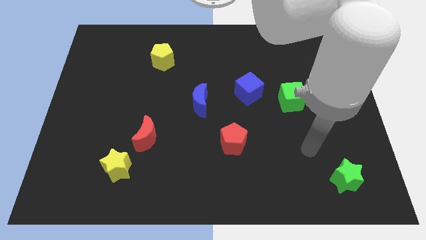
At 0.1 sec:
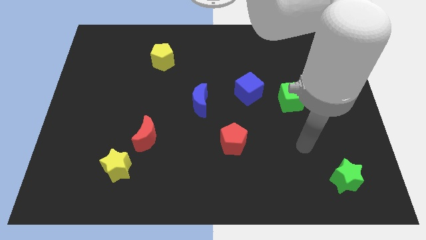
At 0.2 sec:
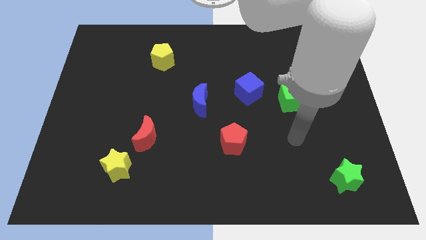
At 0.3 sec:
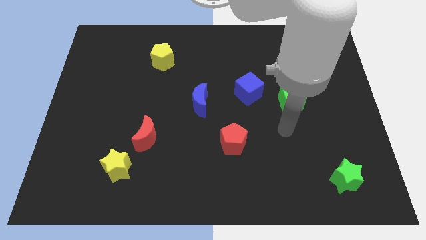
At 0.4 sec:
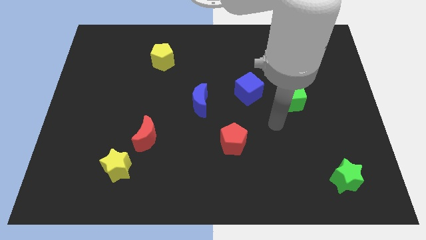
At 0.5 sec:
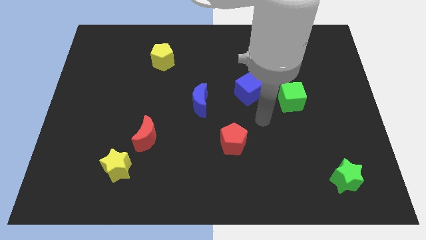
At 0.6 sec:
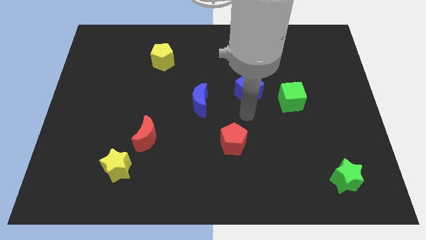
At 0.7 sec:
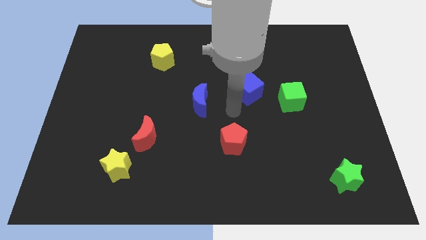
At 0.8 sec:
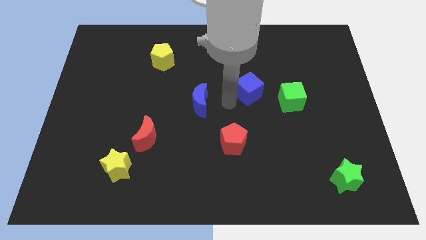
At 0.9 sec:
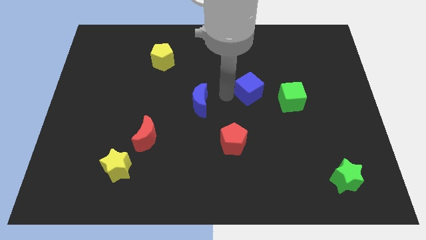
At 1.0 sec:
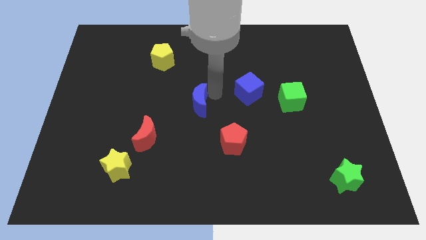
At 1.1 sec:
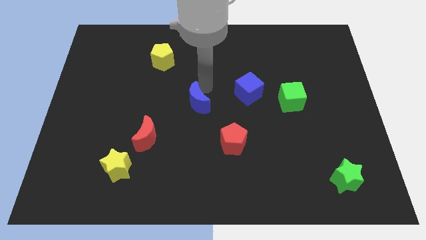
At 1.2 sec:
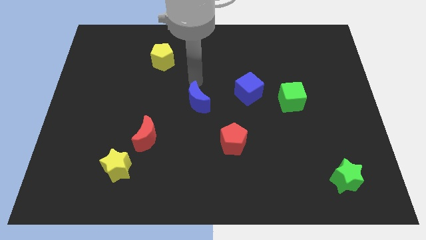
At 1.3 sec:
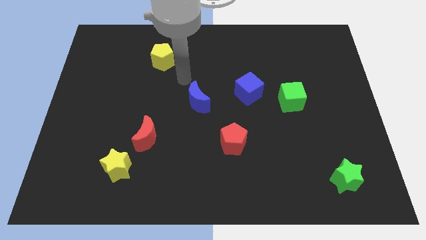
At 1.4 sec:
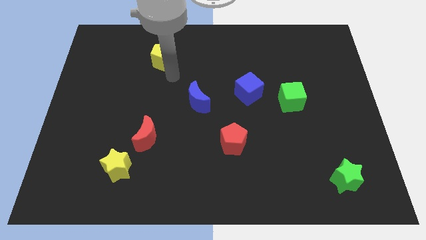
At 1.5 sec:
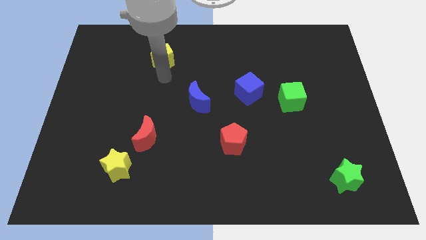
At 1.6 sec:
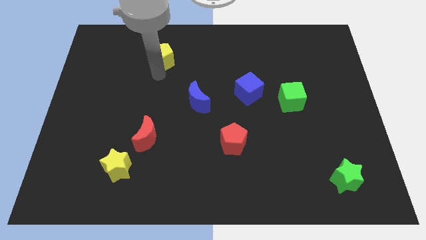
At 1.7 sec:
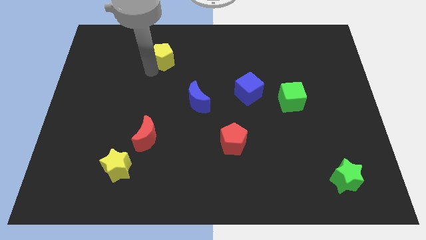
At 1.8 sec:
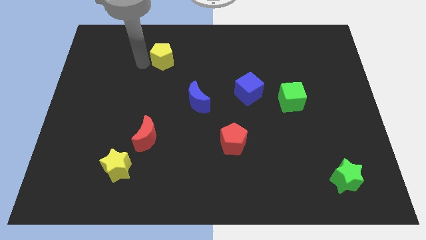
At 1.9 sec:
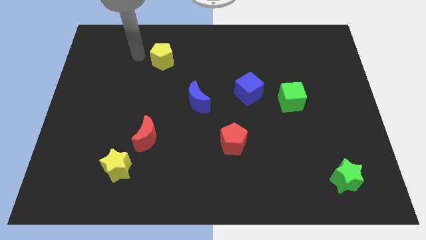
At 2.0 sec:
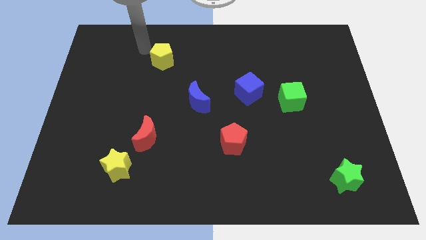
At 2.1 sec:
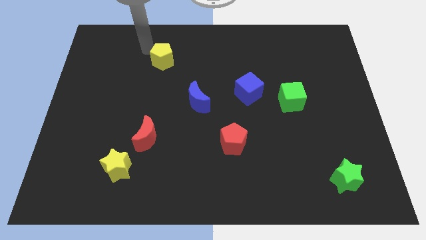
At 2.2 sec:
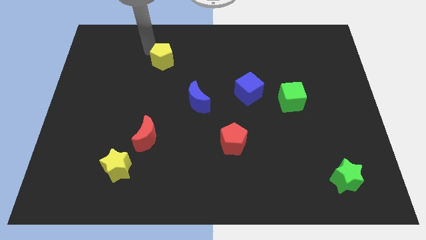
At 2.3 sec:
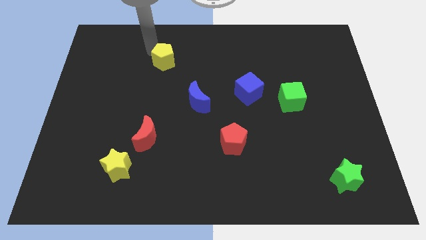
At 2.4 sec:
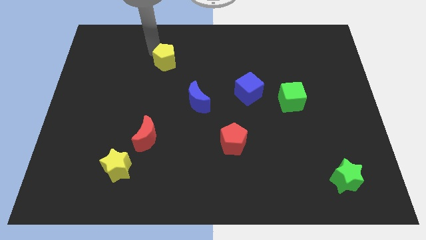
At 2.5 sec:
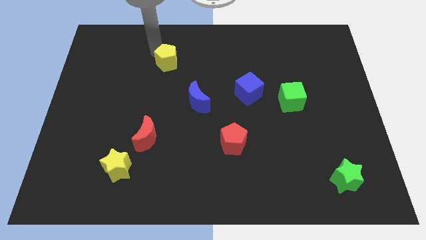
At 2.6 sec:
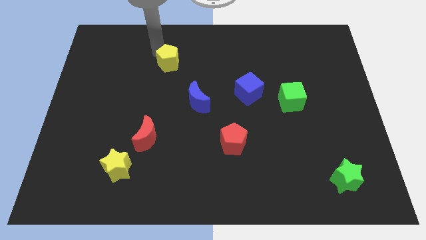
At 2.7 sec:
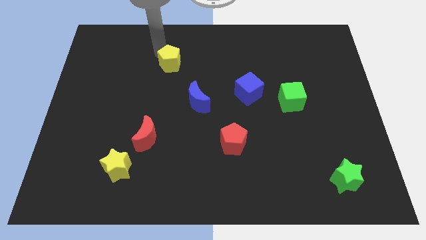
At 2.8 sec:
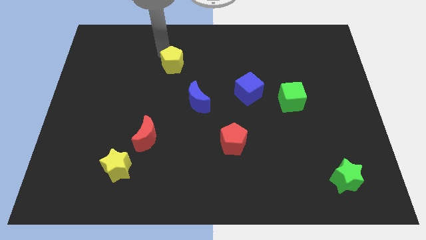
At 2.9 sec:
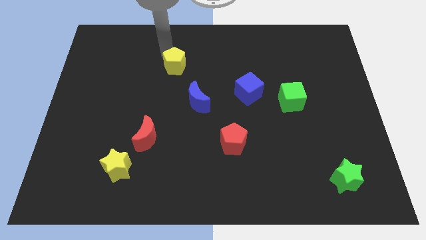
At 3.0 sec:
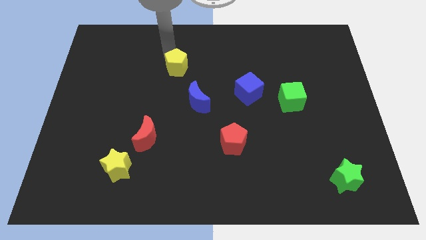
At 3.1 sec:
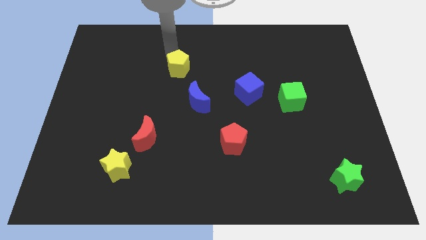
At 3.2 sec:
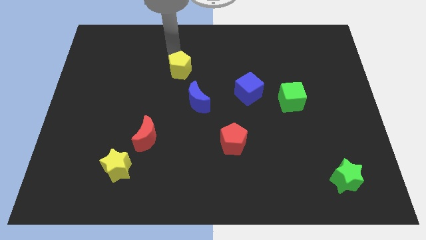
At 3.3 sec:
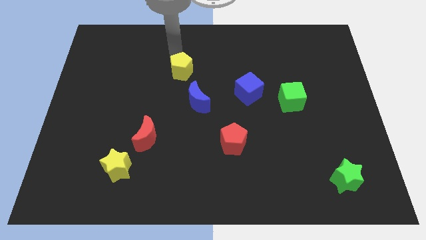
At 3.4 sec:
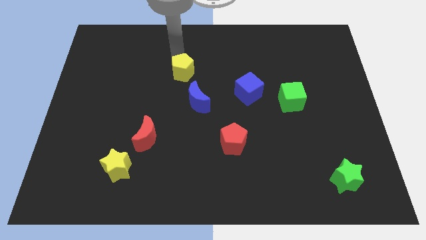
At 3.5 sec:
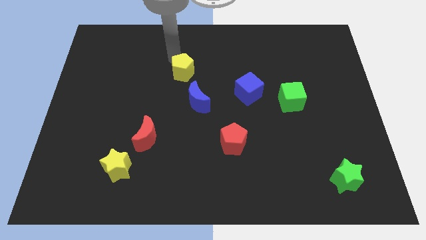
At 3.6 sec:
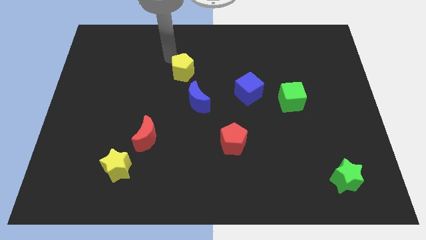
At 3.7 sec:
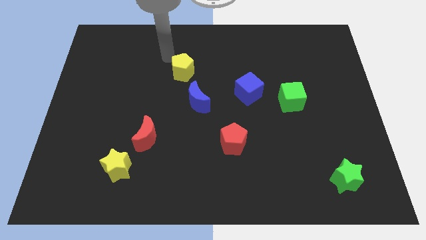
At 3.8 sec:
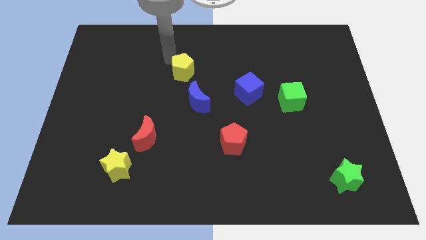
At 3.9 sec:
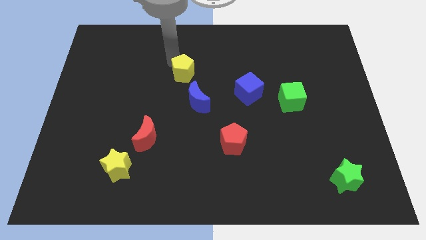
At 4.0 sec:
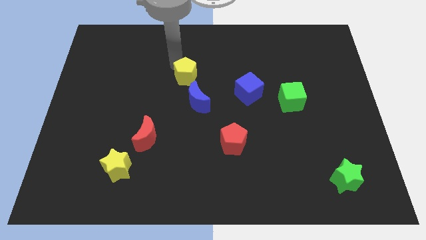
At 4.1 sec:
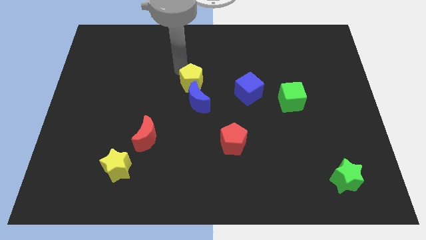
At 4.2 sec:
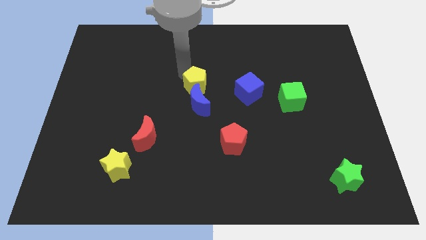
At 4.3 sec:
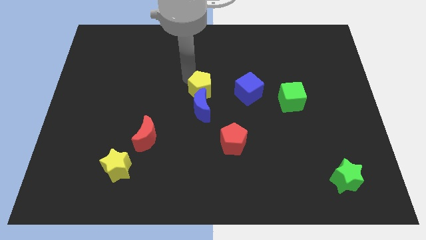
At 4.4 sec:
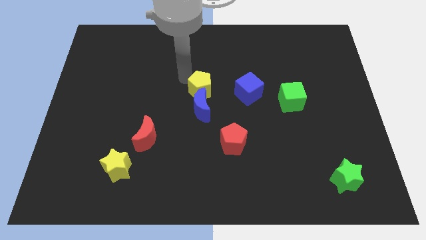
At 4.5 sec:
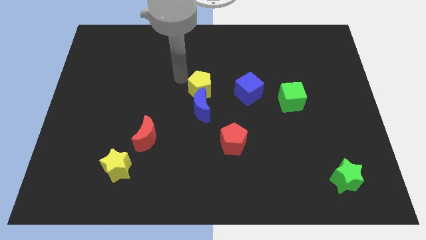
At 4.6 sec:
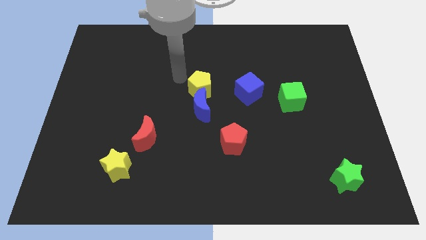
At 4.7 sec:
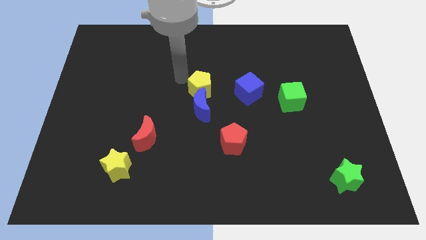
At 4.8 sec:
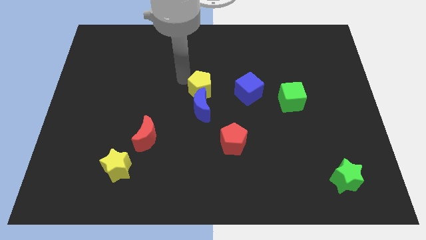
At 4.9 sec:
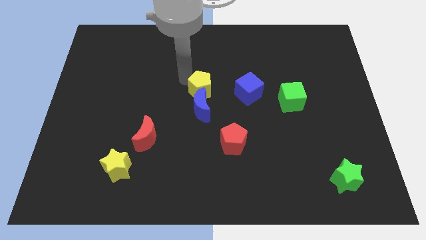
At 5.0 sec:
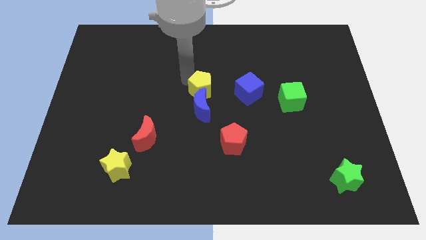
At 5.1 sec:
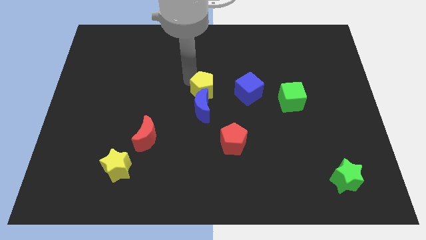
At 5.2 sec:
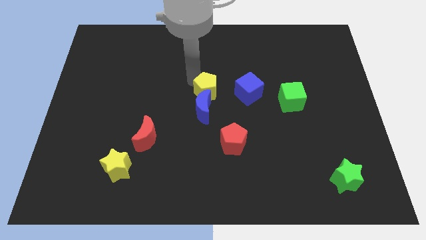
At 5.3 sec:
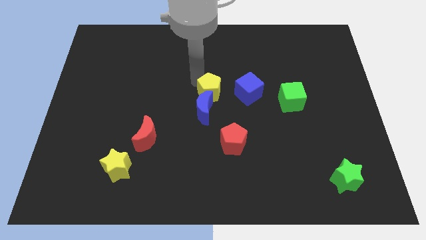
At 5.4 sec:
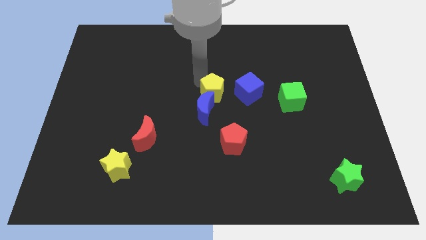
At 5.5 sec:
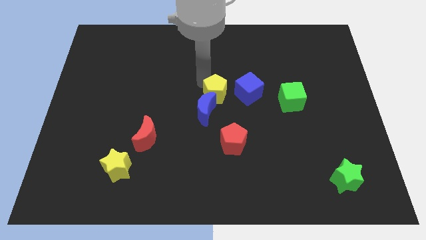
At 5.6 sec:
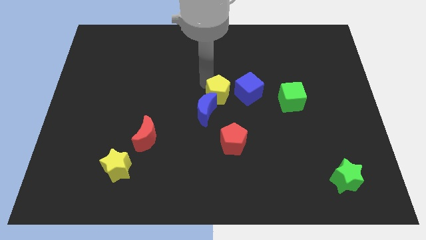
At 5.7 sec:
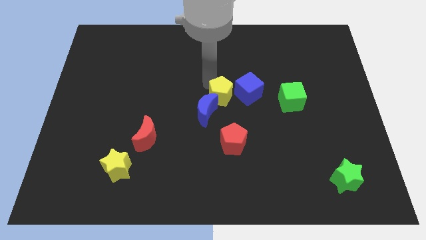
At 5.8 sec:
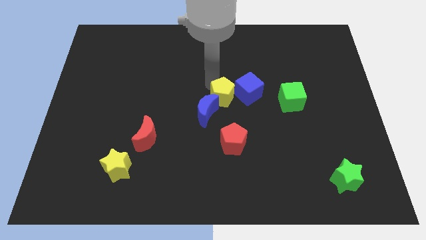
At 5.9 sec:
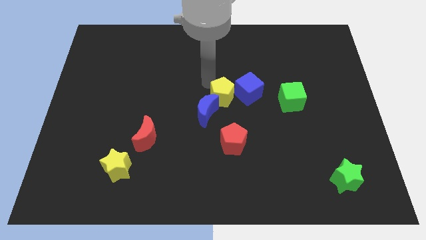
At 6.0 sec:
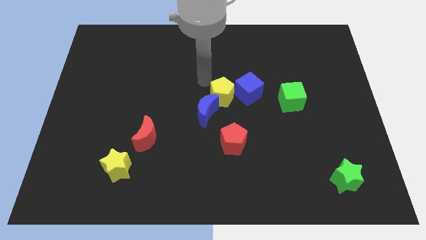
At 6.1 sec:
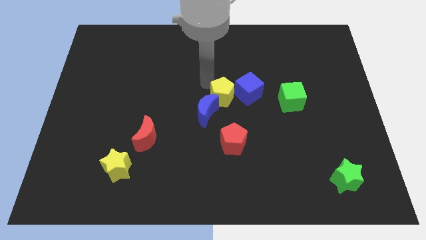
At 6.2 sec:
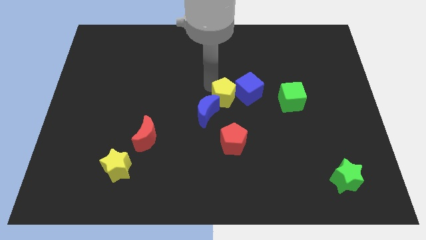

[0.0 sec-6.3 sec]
push the yellow pentagon down and to the right diagonally

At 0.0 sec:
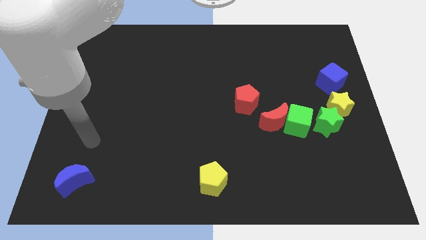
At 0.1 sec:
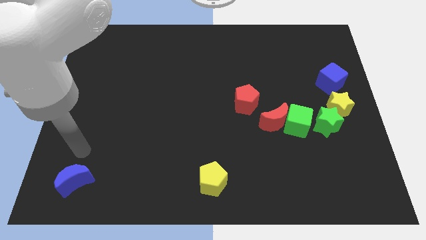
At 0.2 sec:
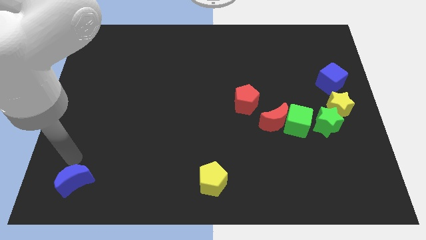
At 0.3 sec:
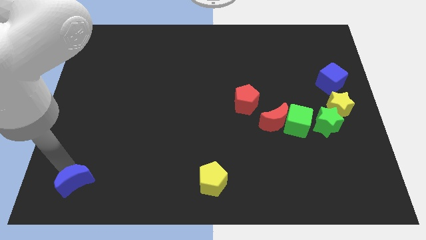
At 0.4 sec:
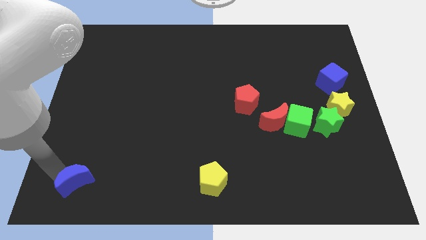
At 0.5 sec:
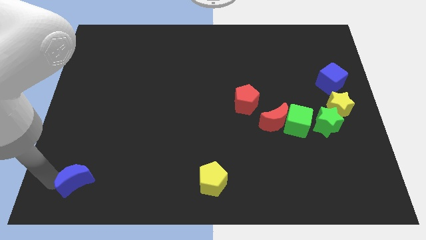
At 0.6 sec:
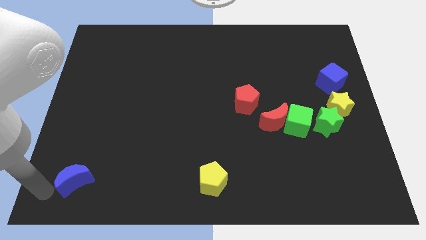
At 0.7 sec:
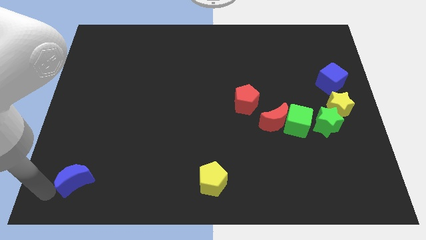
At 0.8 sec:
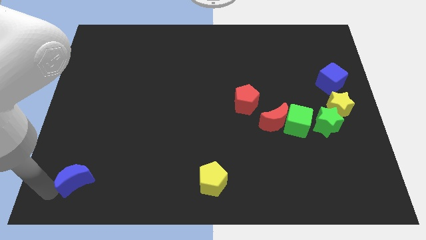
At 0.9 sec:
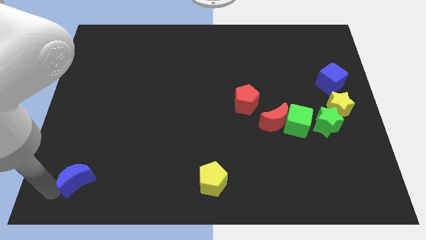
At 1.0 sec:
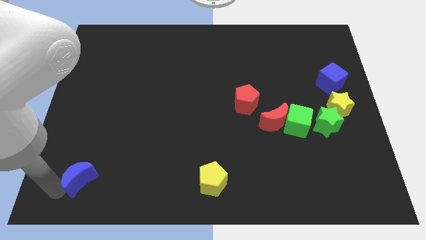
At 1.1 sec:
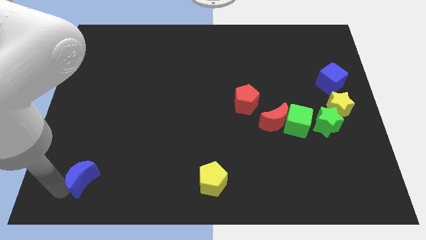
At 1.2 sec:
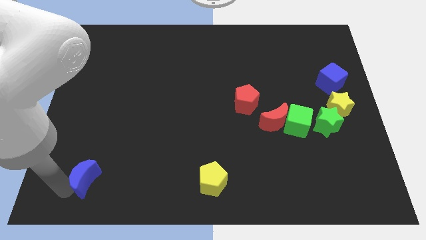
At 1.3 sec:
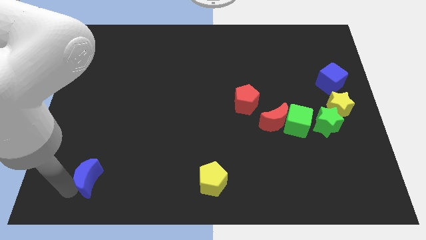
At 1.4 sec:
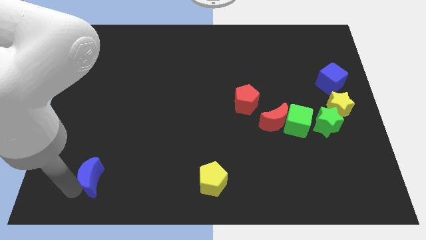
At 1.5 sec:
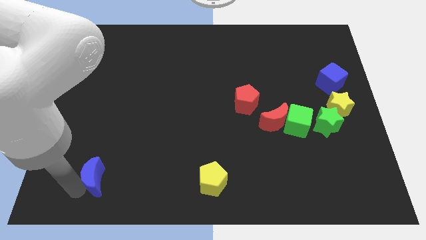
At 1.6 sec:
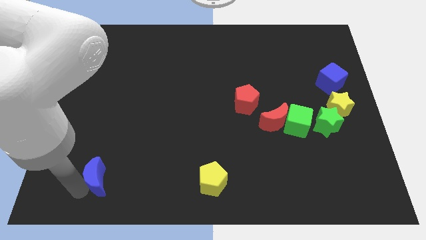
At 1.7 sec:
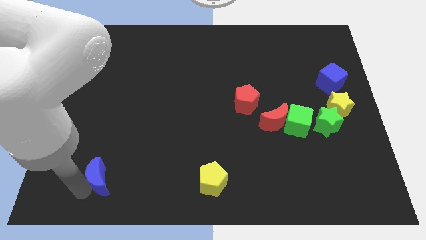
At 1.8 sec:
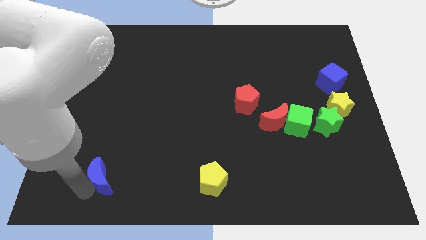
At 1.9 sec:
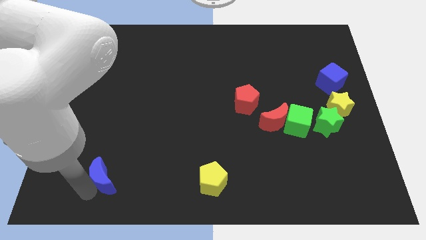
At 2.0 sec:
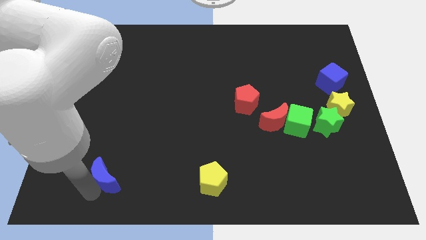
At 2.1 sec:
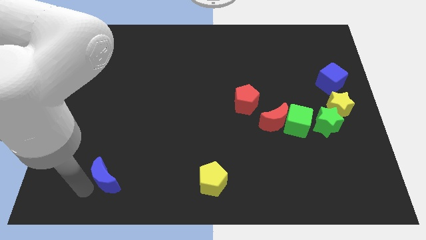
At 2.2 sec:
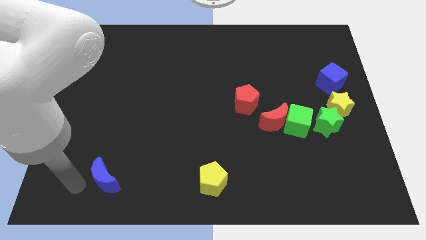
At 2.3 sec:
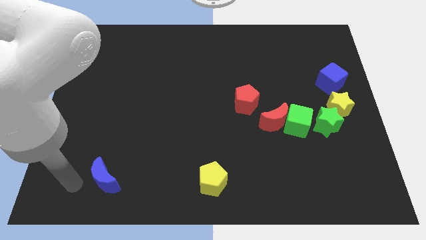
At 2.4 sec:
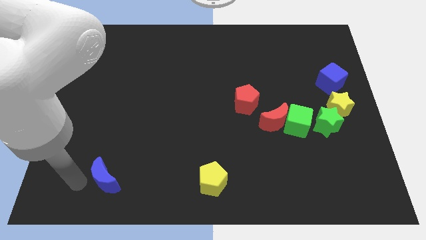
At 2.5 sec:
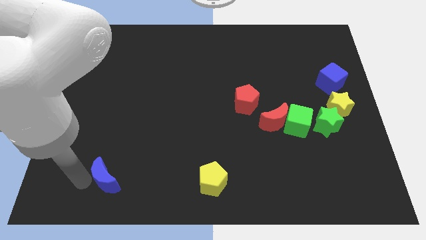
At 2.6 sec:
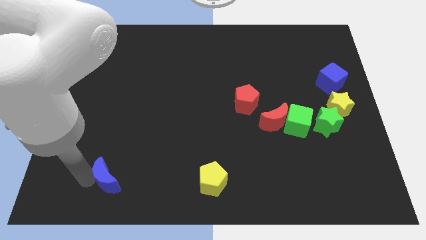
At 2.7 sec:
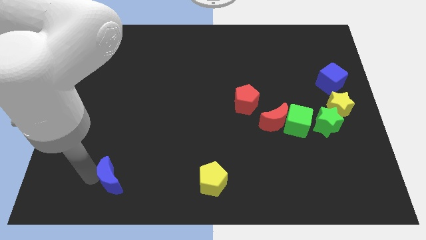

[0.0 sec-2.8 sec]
slightly slide the blue moon right
